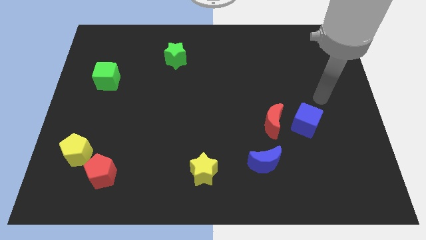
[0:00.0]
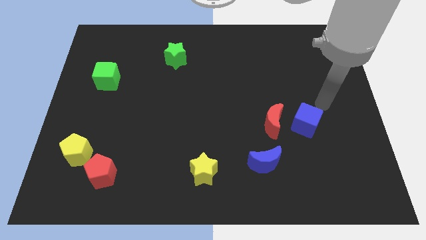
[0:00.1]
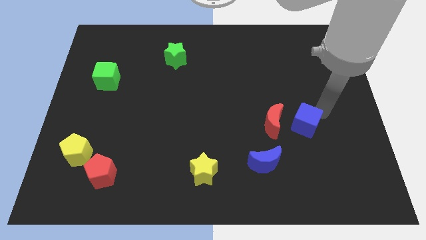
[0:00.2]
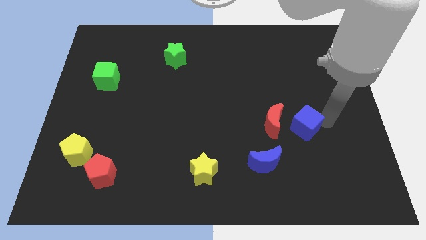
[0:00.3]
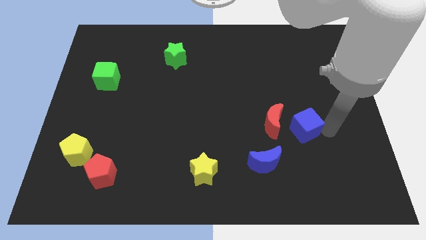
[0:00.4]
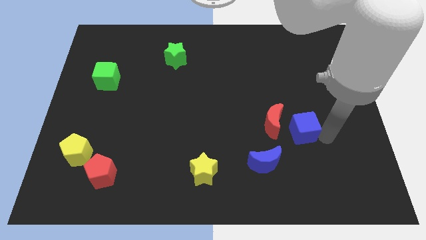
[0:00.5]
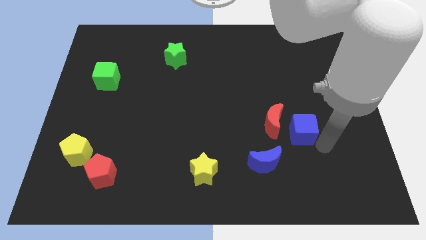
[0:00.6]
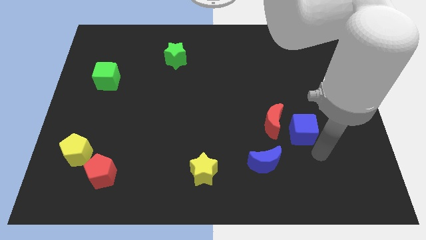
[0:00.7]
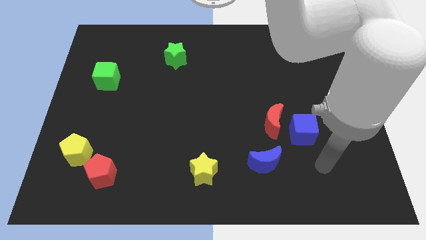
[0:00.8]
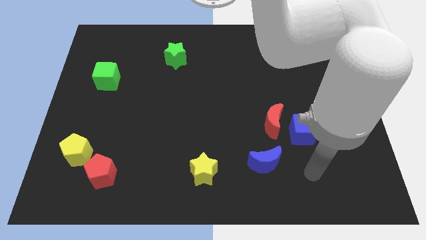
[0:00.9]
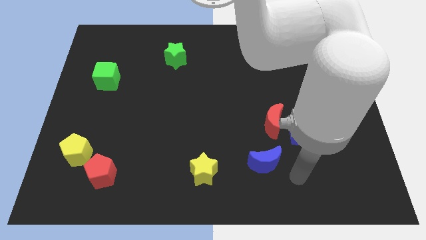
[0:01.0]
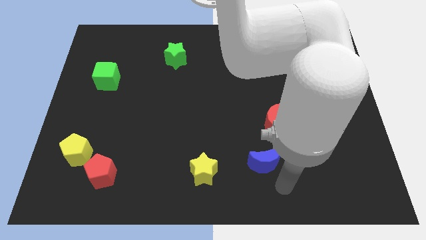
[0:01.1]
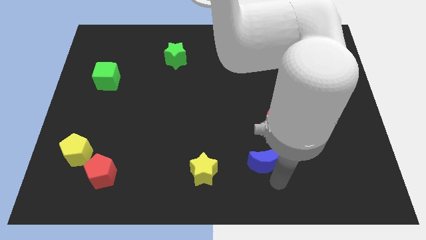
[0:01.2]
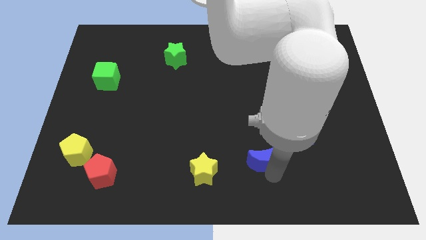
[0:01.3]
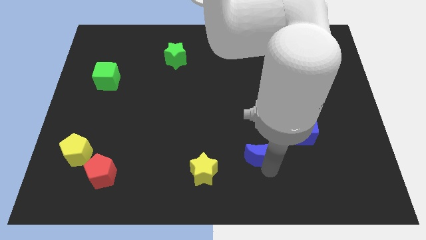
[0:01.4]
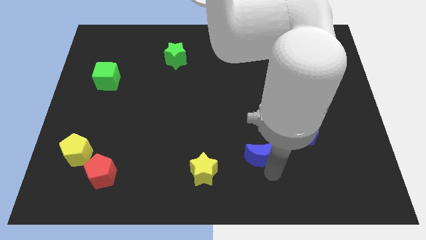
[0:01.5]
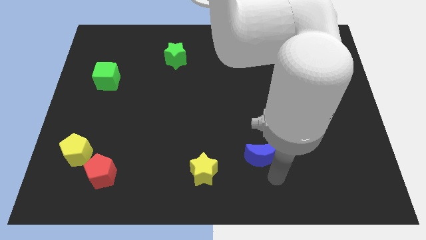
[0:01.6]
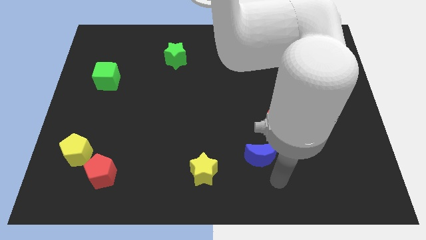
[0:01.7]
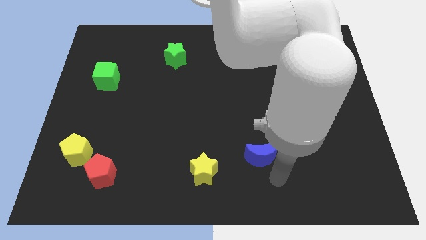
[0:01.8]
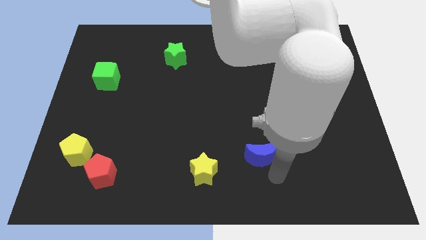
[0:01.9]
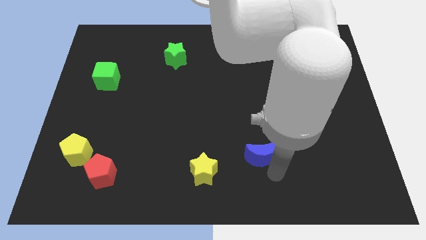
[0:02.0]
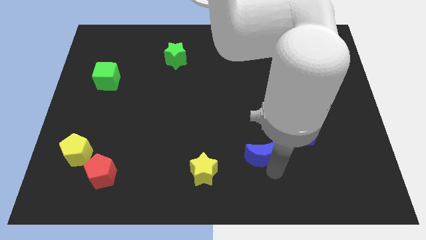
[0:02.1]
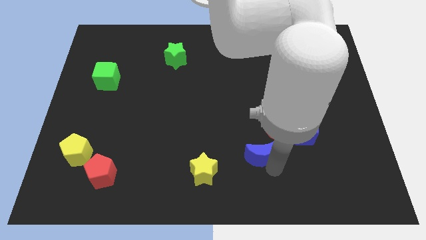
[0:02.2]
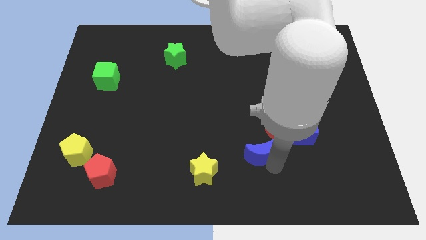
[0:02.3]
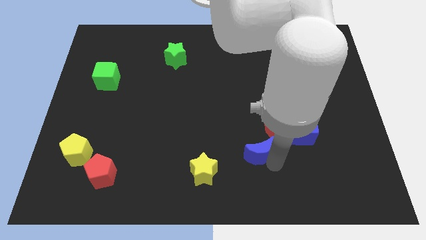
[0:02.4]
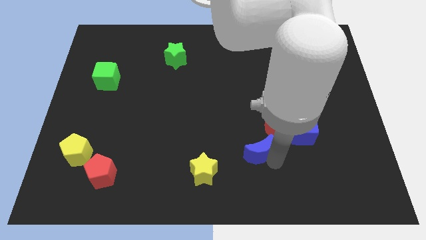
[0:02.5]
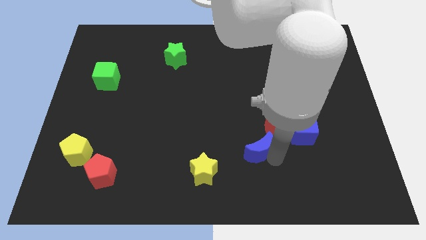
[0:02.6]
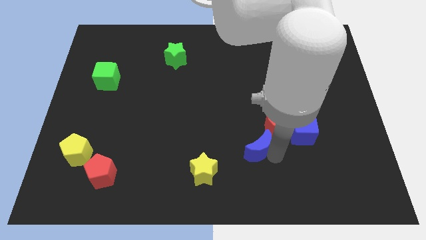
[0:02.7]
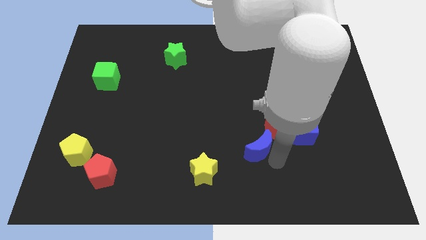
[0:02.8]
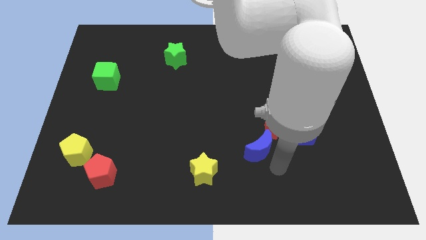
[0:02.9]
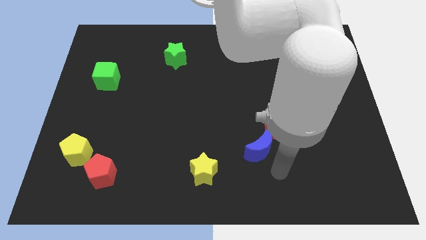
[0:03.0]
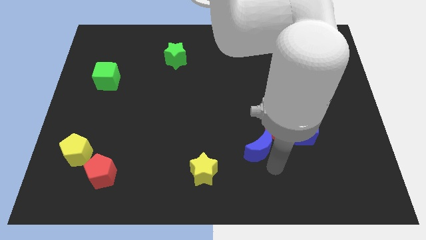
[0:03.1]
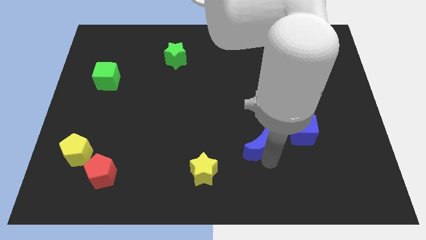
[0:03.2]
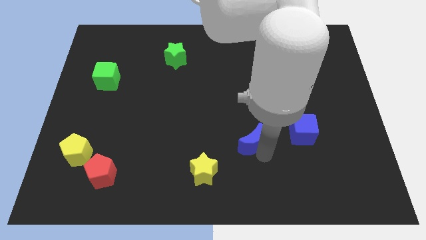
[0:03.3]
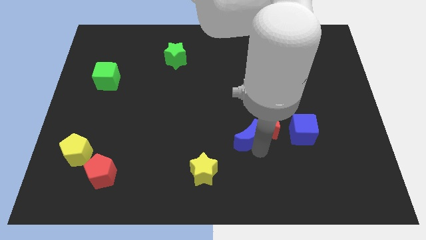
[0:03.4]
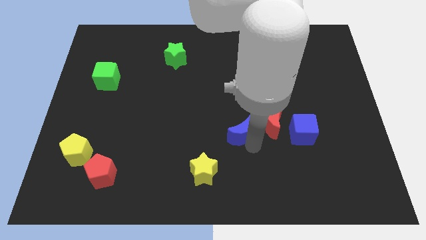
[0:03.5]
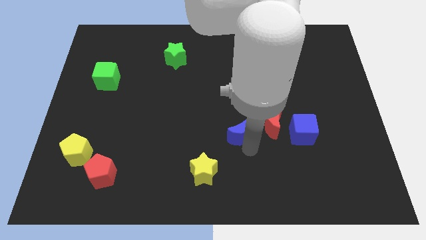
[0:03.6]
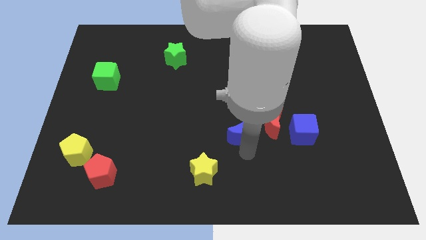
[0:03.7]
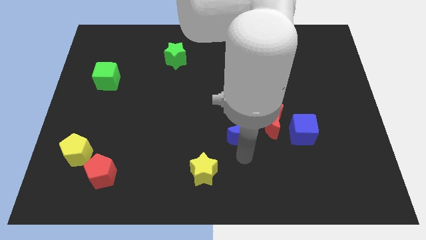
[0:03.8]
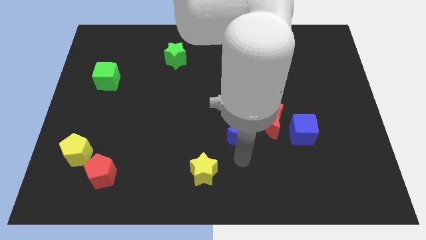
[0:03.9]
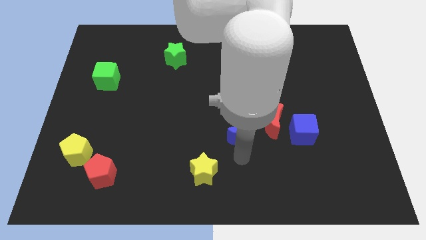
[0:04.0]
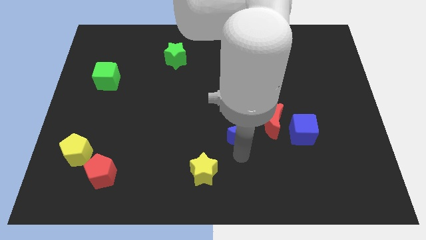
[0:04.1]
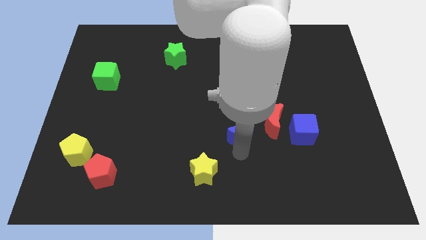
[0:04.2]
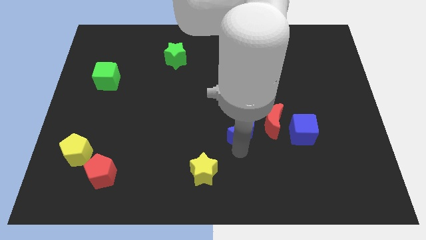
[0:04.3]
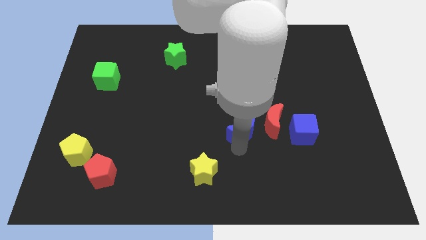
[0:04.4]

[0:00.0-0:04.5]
push the blue moon a little upwards

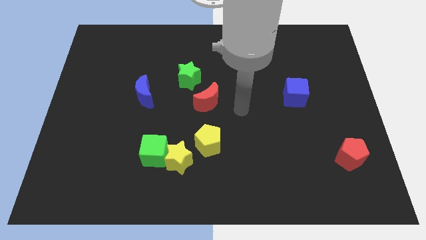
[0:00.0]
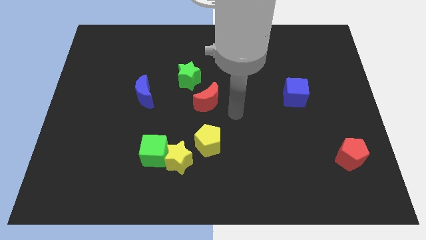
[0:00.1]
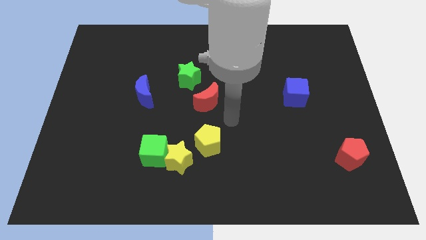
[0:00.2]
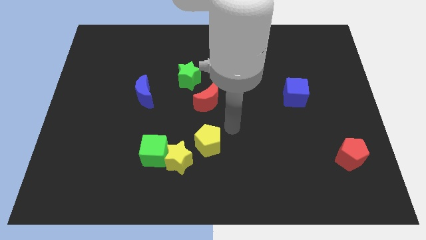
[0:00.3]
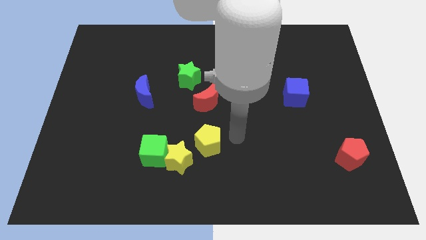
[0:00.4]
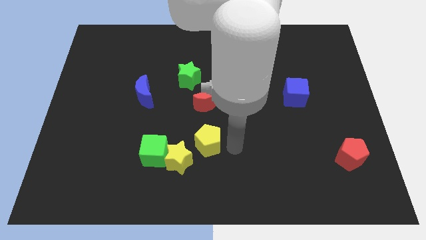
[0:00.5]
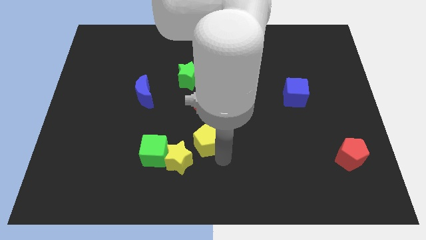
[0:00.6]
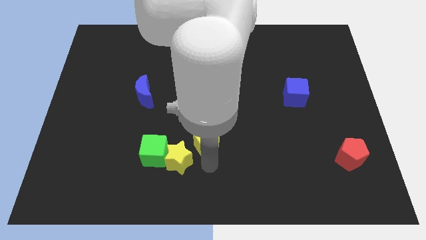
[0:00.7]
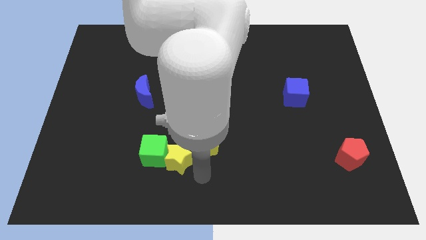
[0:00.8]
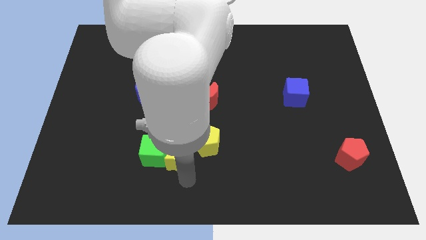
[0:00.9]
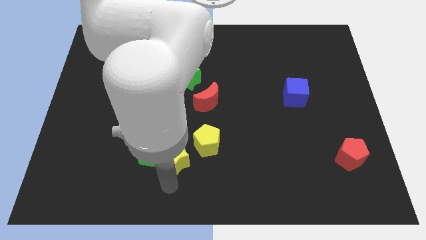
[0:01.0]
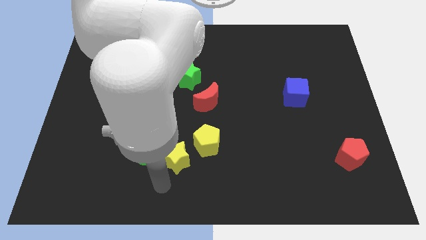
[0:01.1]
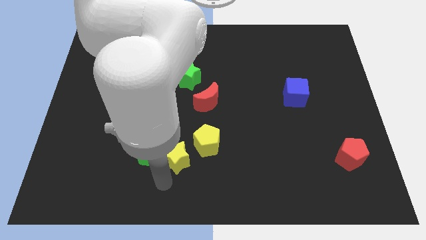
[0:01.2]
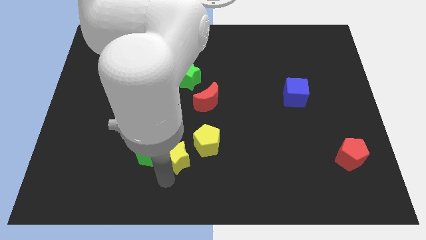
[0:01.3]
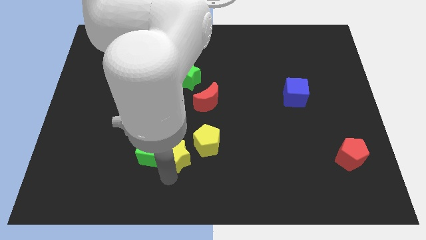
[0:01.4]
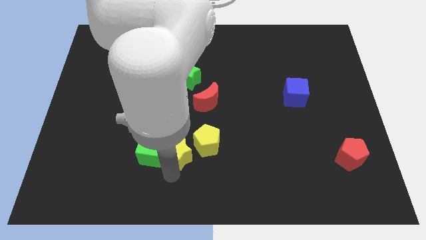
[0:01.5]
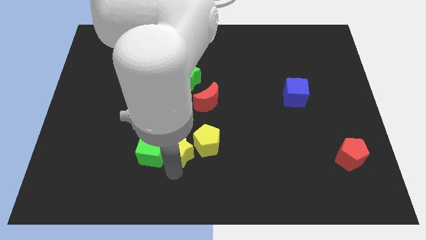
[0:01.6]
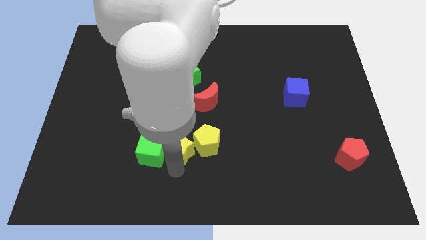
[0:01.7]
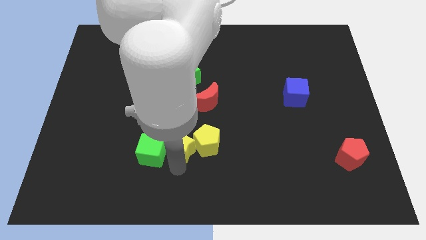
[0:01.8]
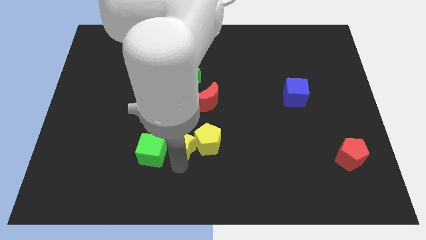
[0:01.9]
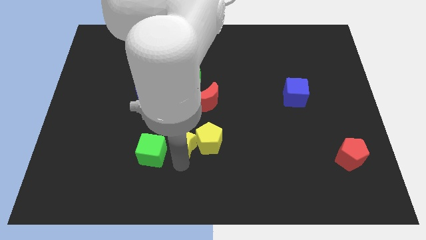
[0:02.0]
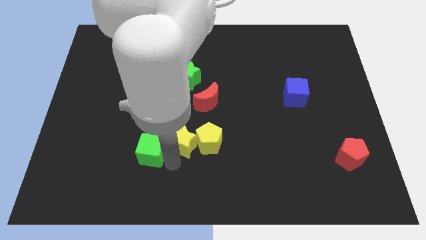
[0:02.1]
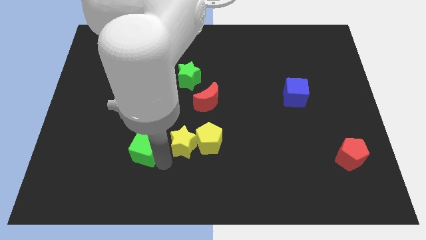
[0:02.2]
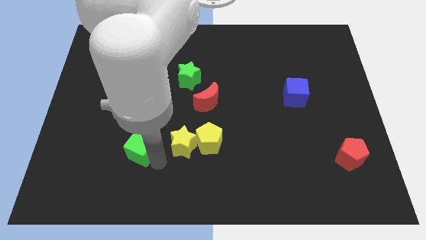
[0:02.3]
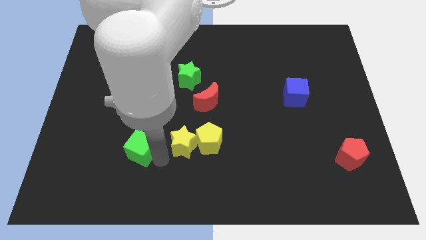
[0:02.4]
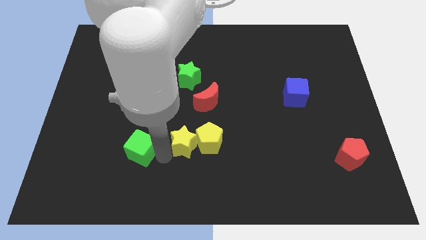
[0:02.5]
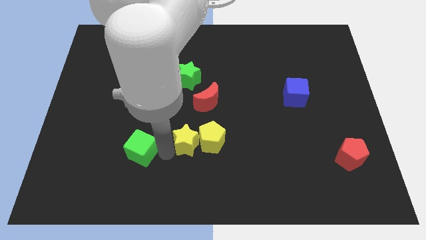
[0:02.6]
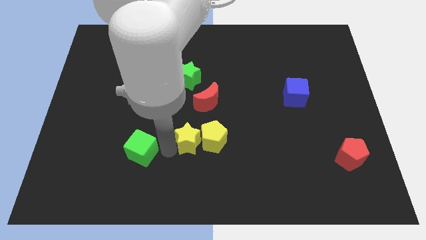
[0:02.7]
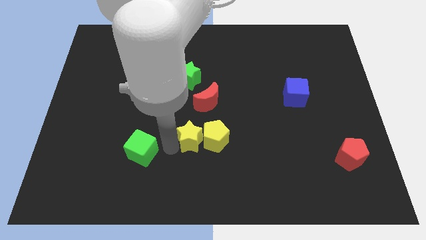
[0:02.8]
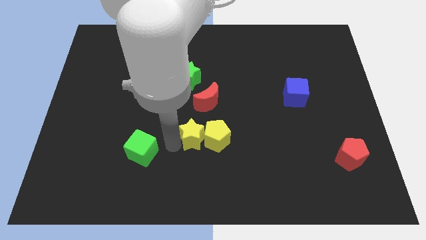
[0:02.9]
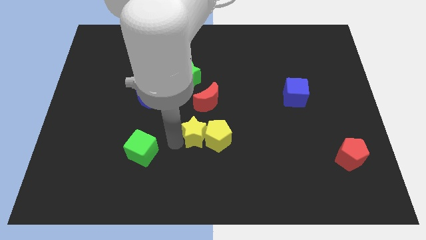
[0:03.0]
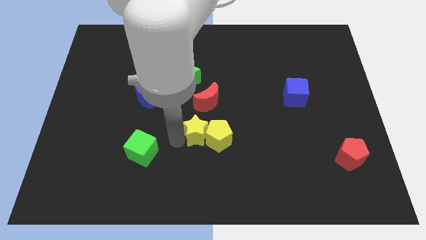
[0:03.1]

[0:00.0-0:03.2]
slide the yellow star diagonally upwards and to the right slightly

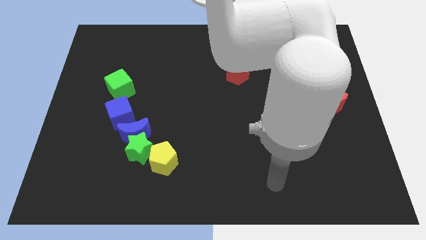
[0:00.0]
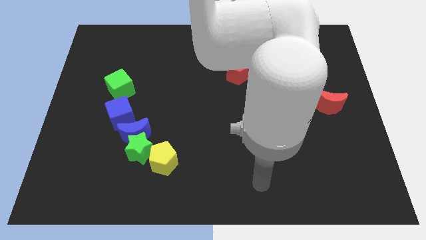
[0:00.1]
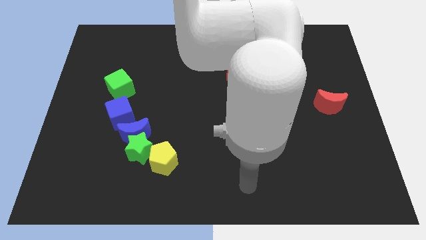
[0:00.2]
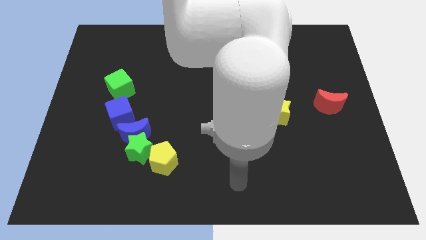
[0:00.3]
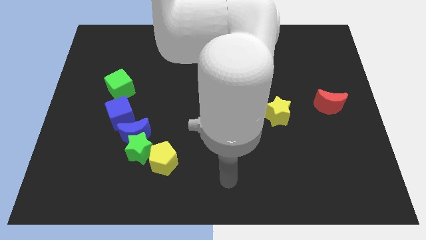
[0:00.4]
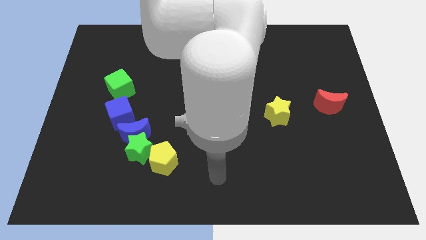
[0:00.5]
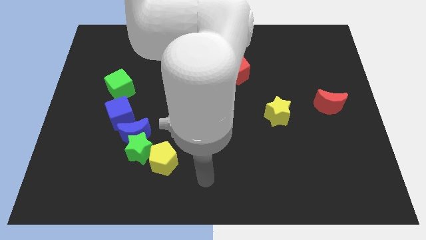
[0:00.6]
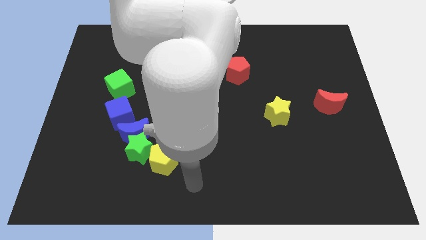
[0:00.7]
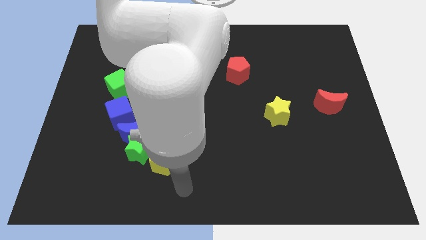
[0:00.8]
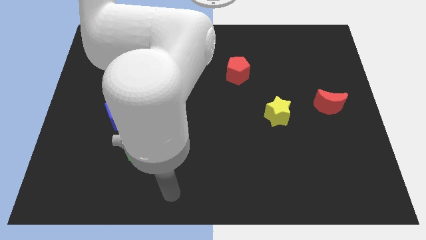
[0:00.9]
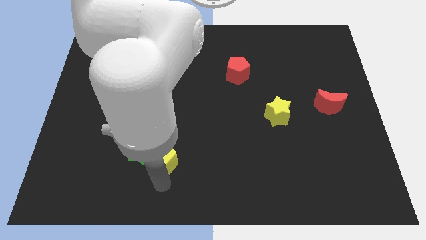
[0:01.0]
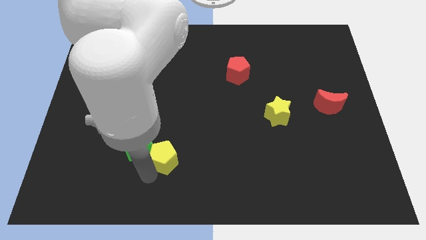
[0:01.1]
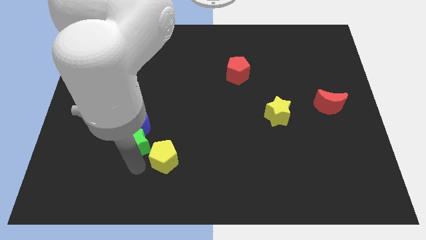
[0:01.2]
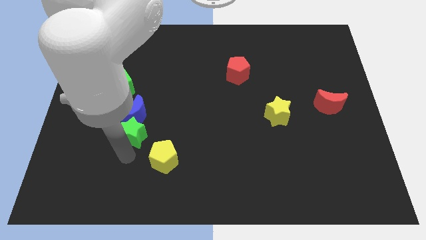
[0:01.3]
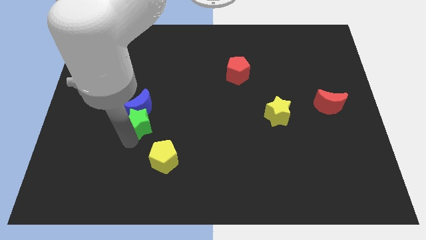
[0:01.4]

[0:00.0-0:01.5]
slide the blue moon up a little
